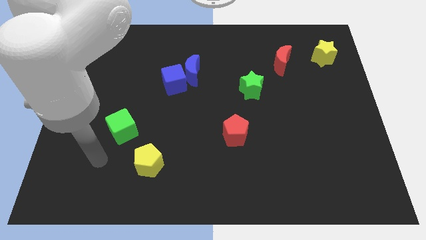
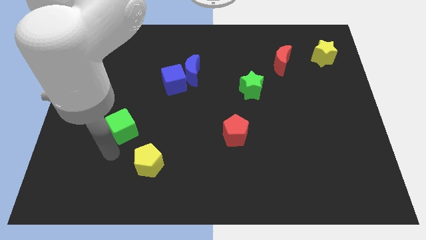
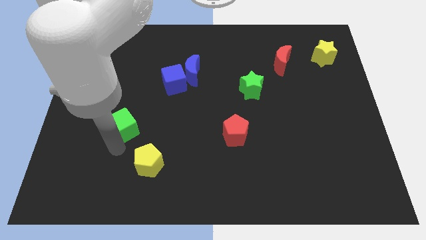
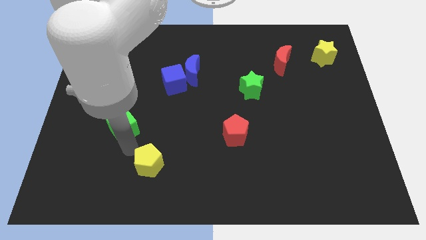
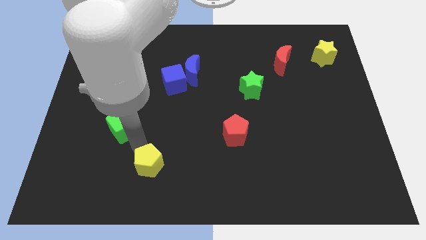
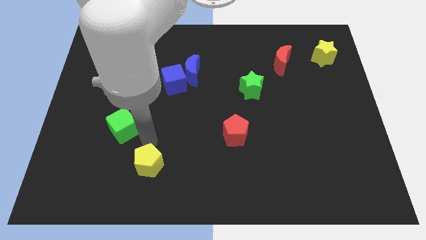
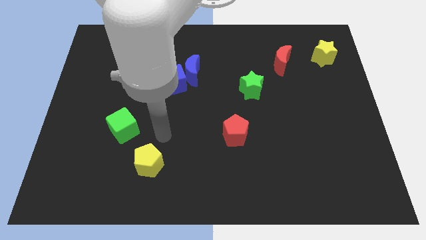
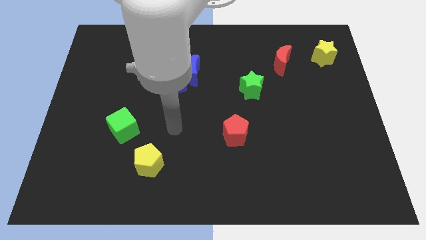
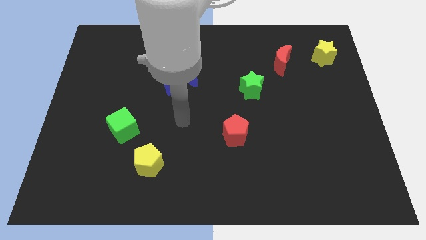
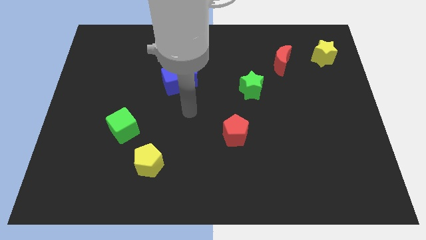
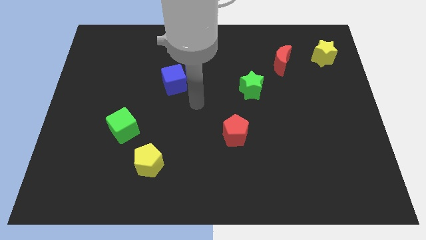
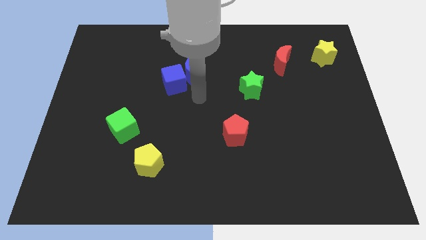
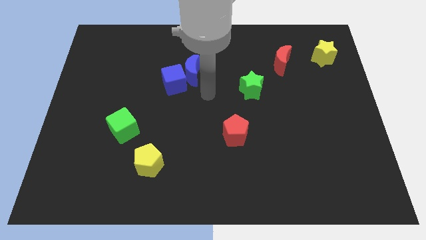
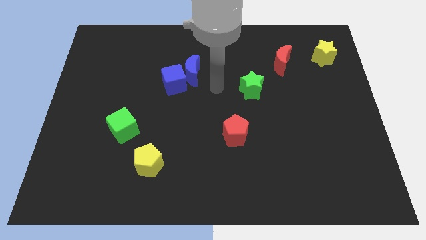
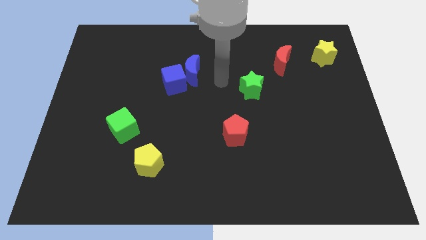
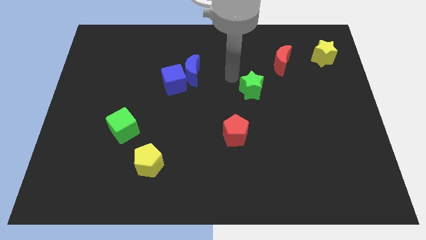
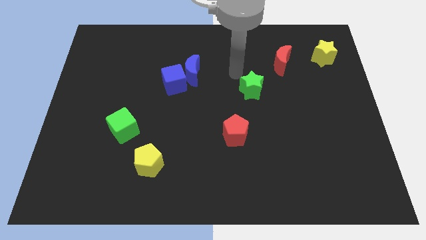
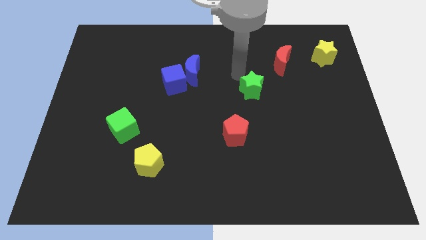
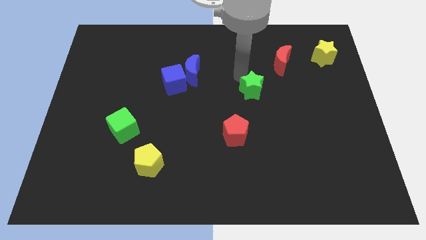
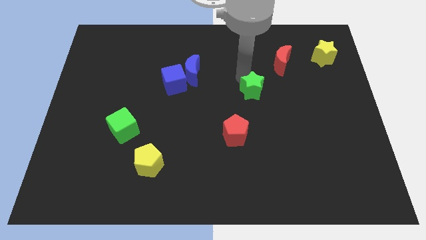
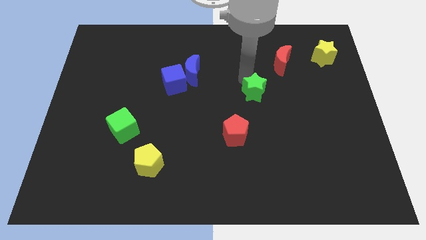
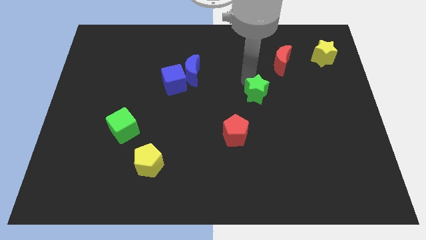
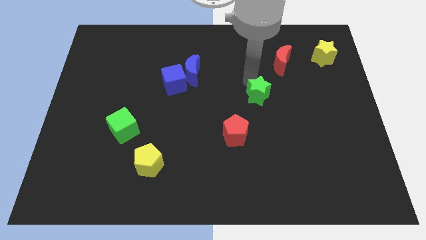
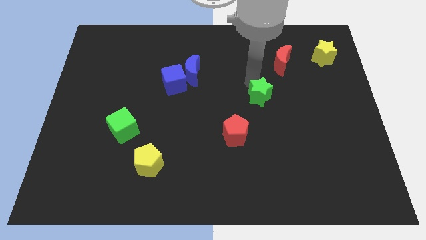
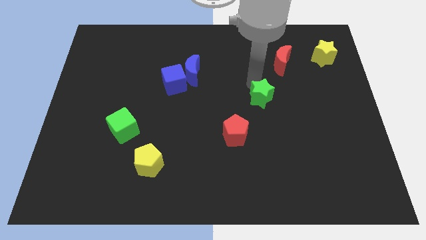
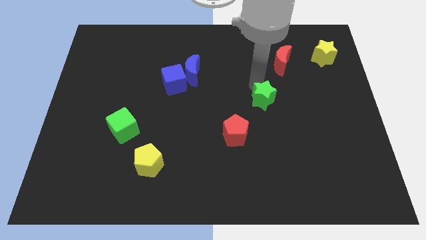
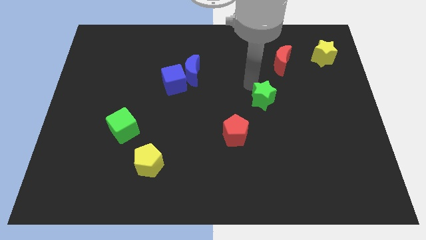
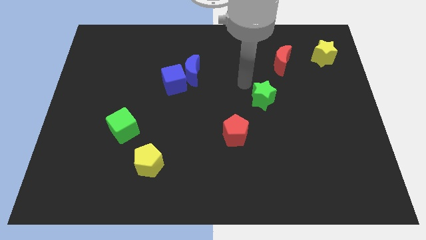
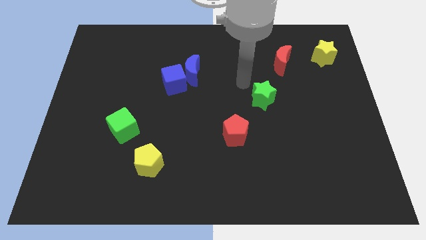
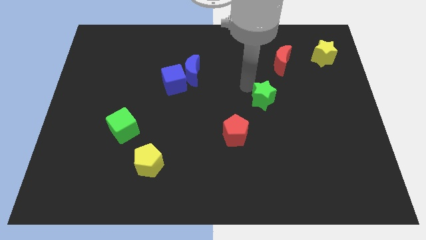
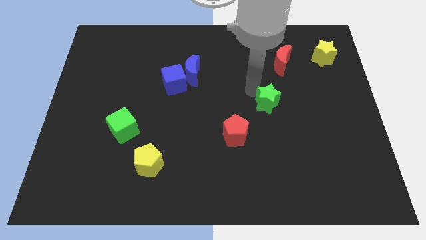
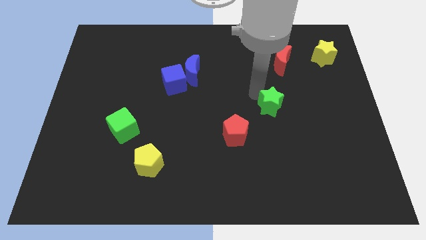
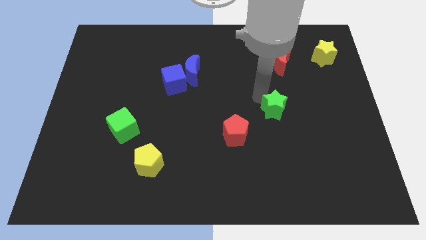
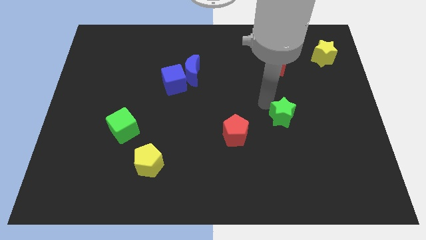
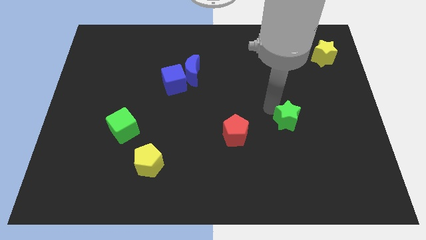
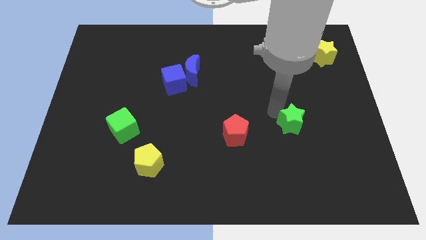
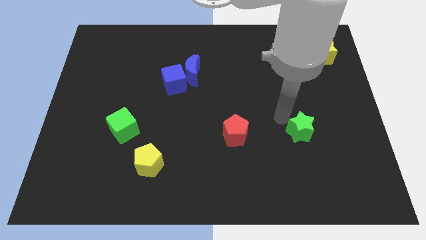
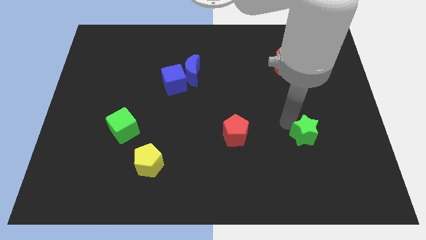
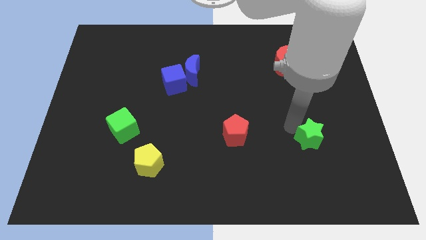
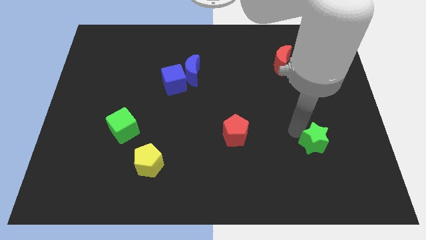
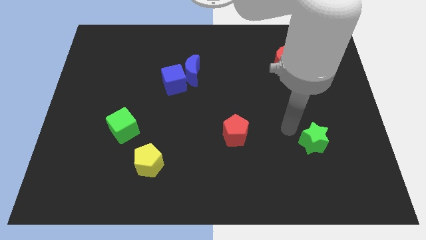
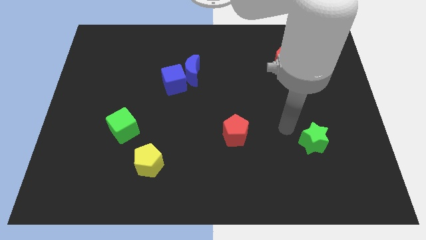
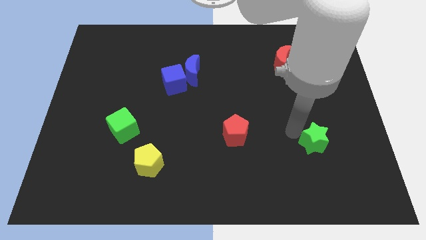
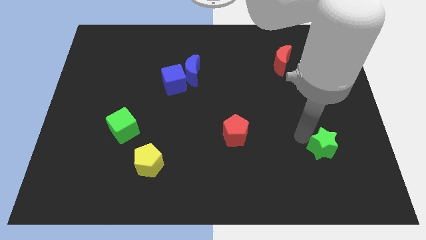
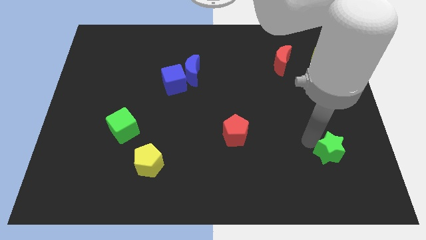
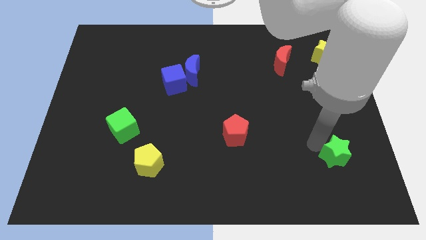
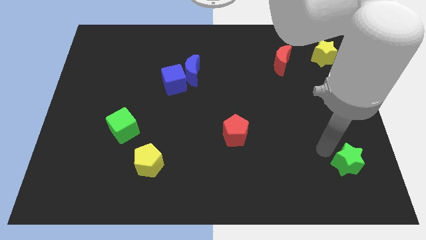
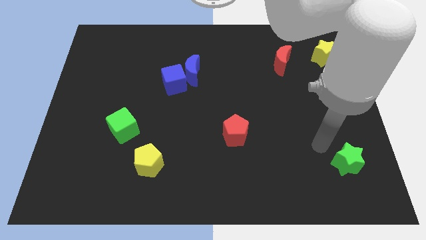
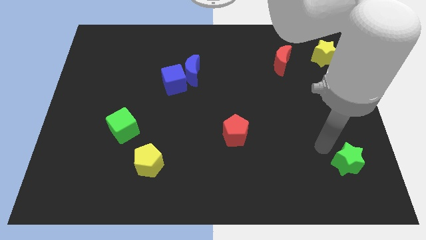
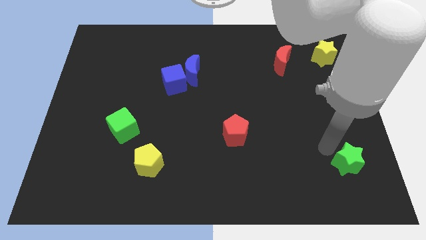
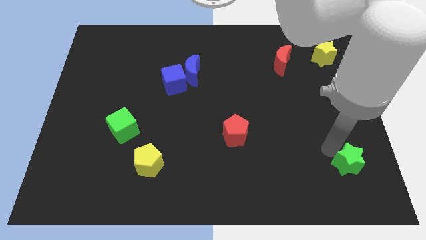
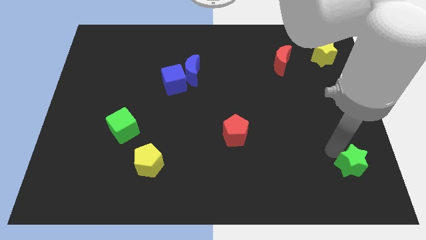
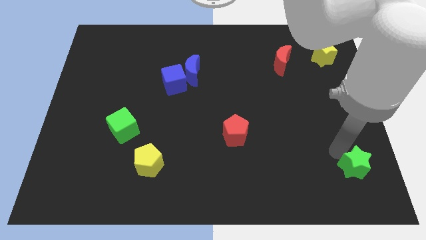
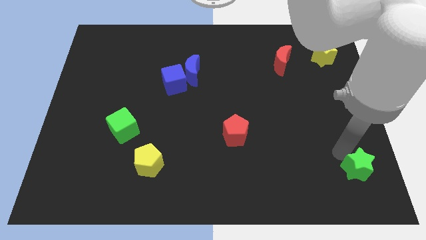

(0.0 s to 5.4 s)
put the green star to the bottom right corner
